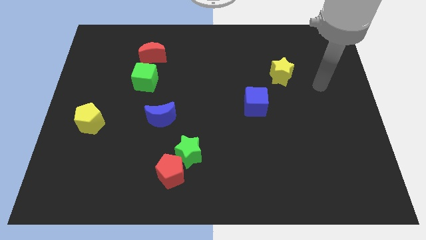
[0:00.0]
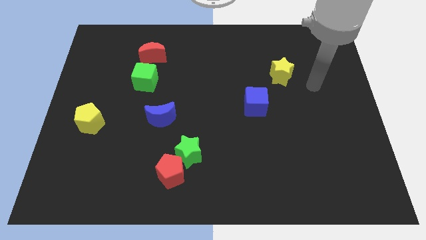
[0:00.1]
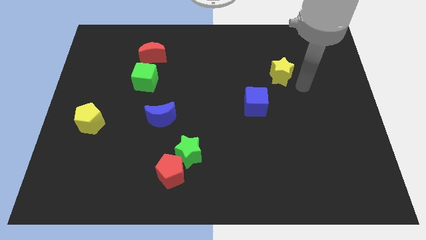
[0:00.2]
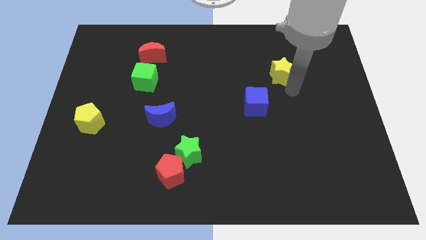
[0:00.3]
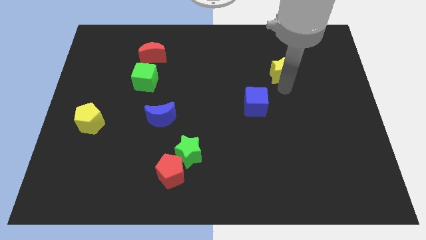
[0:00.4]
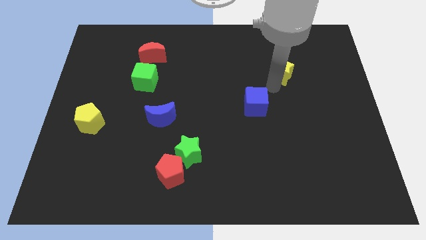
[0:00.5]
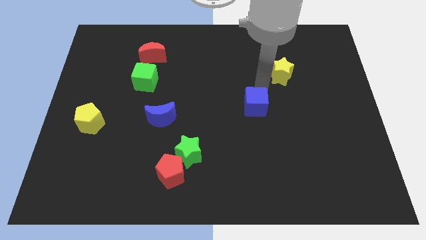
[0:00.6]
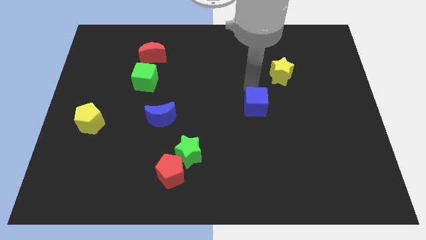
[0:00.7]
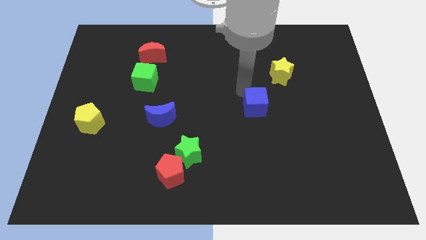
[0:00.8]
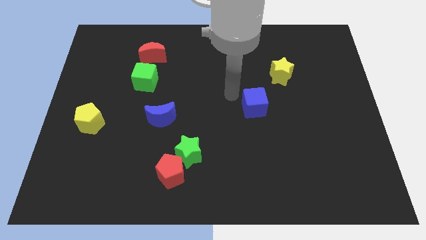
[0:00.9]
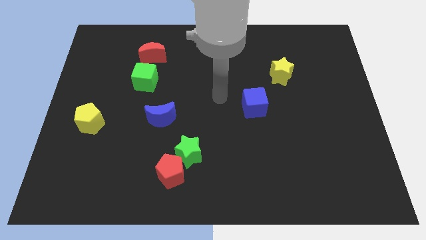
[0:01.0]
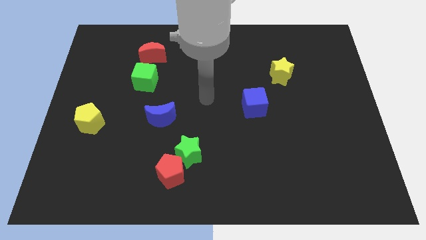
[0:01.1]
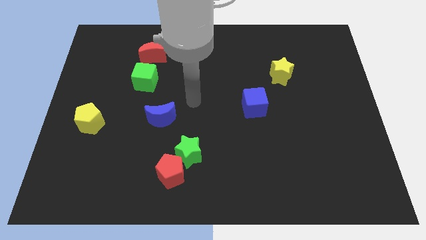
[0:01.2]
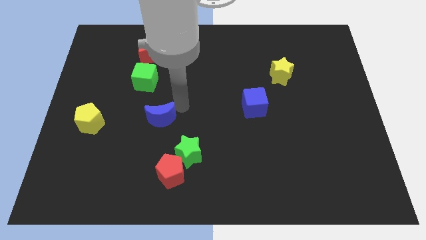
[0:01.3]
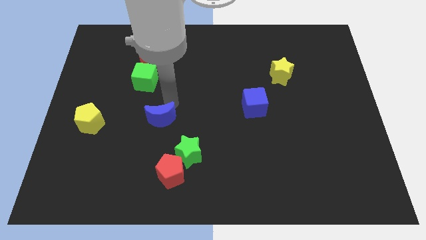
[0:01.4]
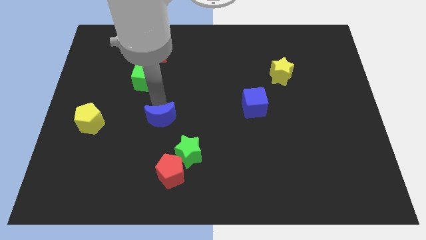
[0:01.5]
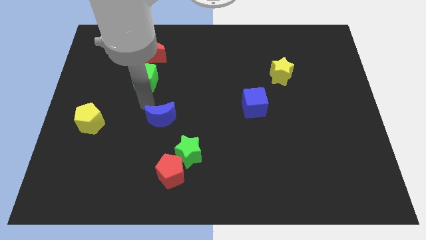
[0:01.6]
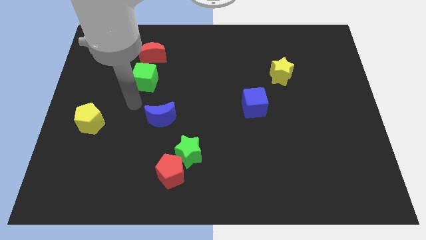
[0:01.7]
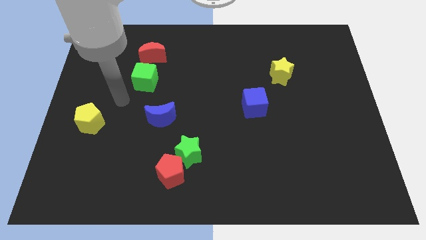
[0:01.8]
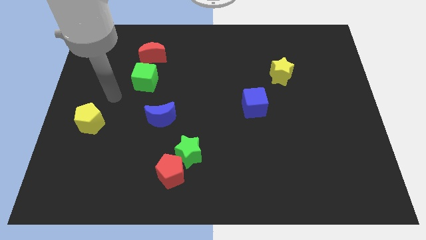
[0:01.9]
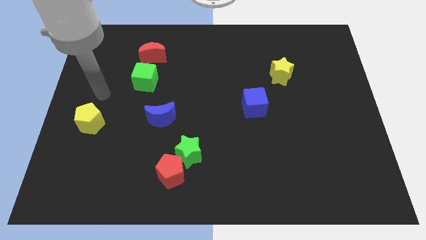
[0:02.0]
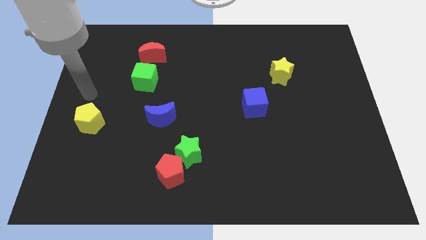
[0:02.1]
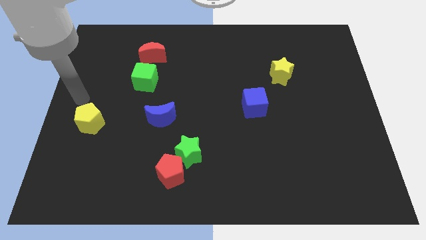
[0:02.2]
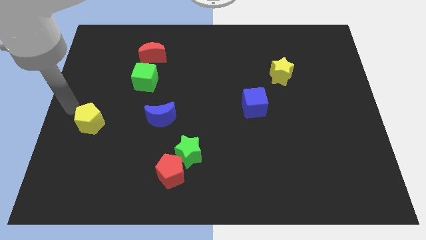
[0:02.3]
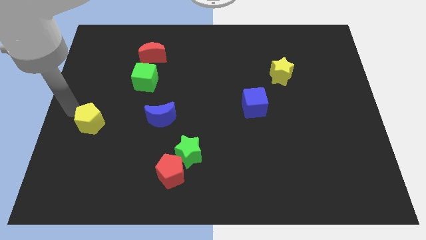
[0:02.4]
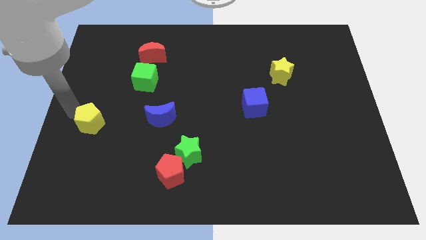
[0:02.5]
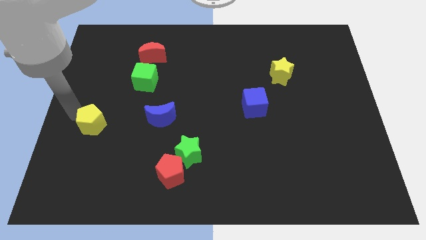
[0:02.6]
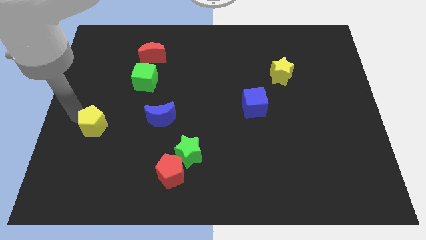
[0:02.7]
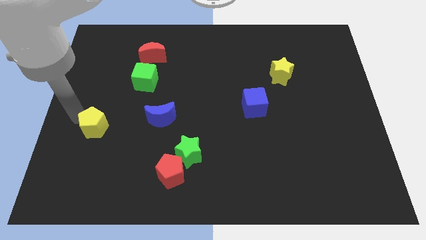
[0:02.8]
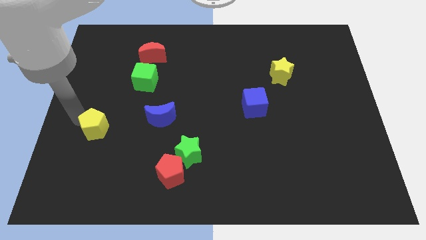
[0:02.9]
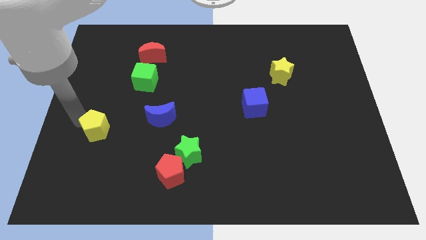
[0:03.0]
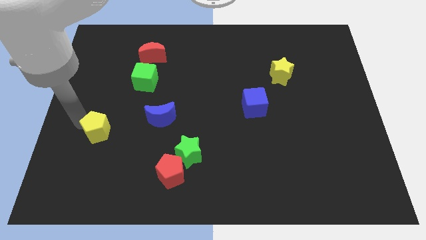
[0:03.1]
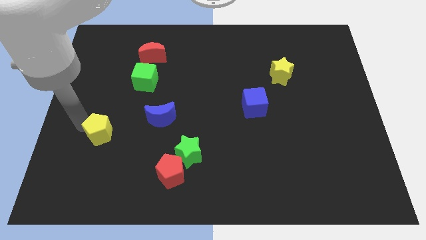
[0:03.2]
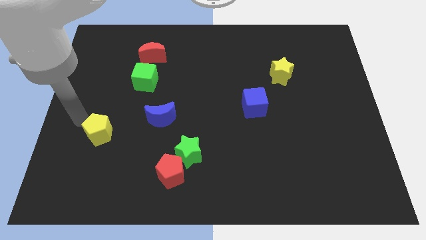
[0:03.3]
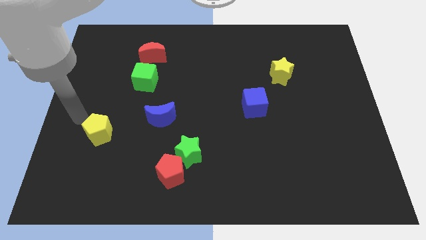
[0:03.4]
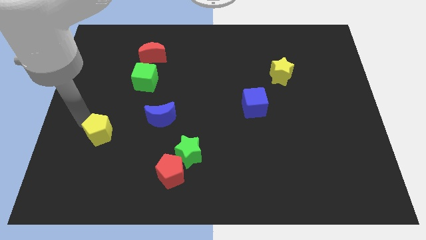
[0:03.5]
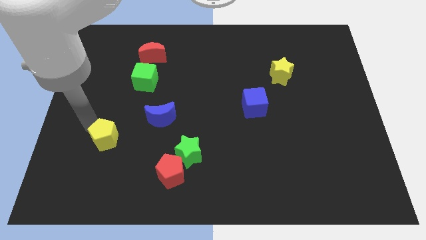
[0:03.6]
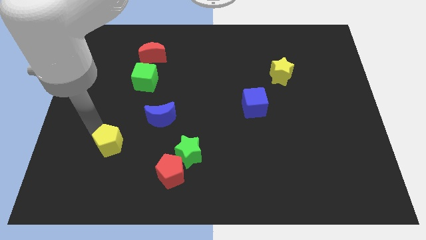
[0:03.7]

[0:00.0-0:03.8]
slightly move the yellow pentagon downwards and then right

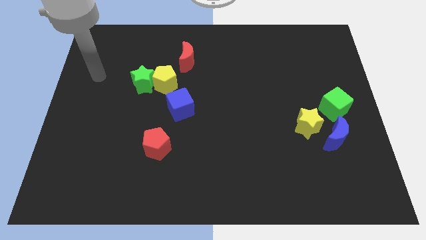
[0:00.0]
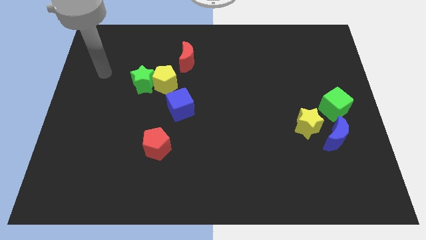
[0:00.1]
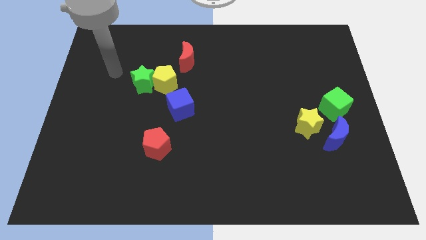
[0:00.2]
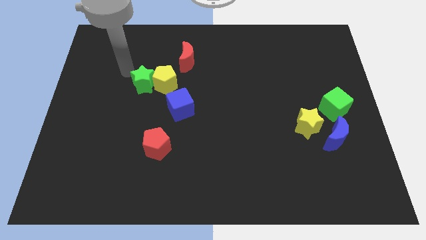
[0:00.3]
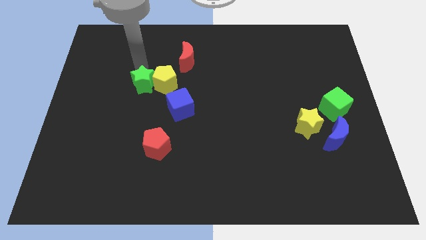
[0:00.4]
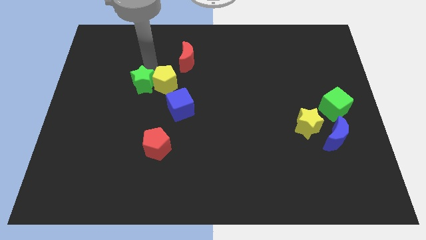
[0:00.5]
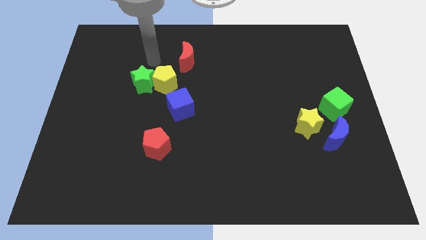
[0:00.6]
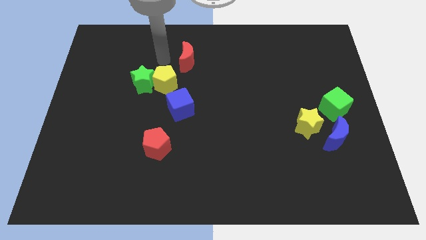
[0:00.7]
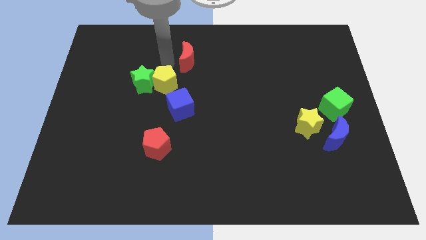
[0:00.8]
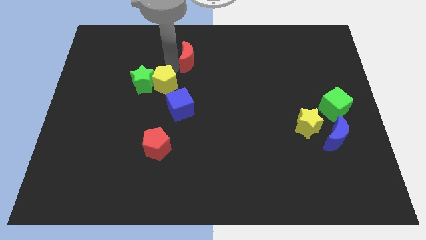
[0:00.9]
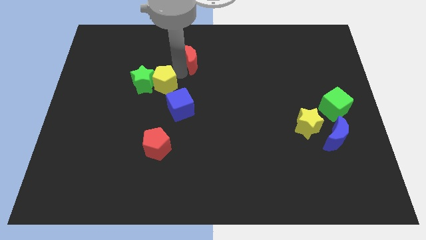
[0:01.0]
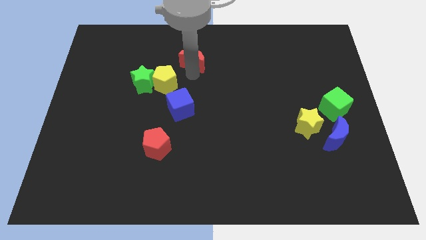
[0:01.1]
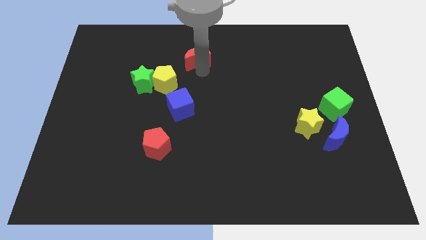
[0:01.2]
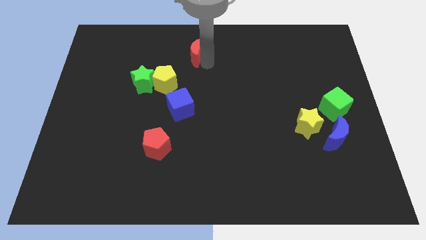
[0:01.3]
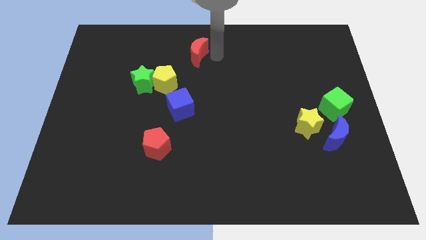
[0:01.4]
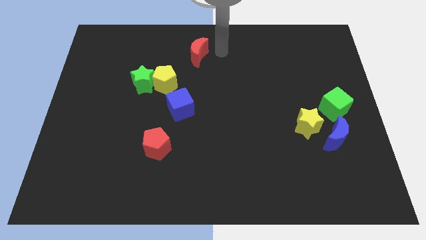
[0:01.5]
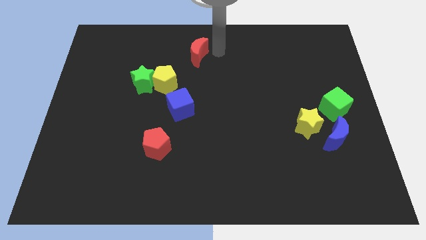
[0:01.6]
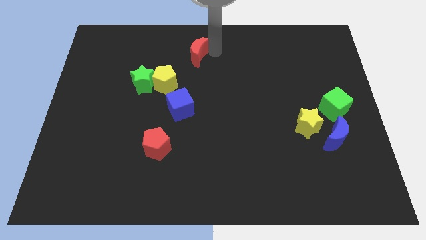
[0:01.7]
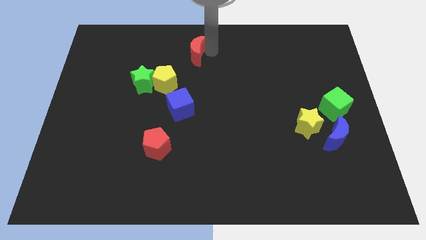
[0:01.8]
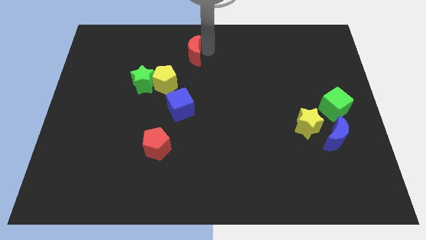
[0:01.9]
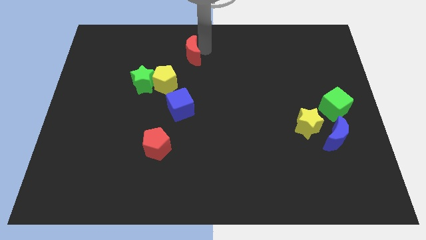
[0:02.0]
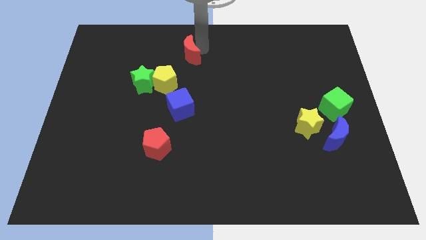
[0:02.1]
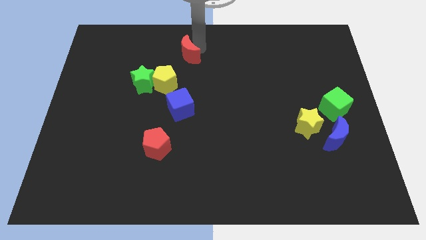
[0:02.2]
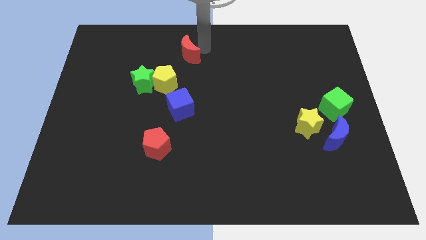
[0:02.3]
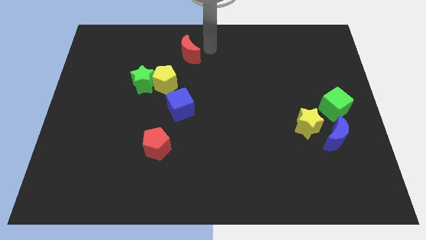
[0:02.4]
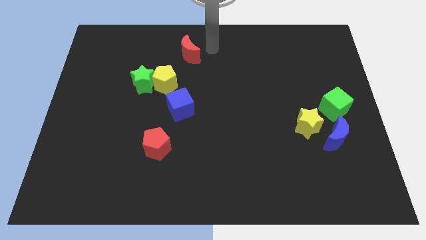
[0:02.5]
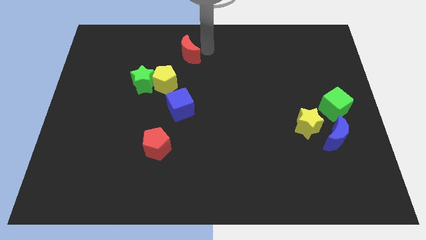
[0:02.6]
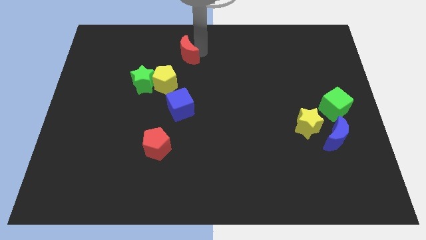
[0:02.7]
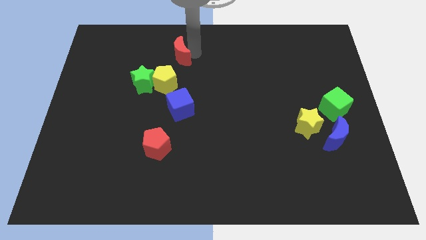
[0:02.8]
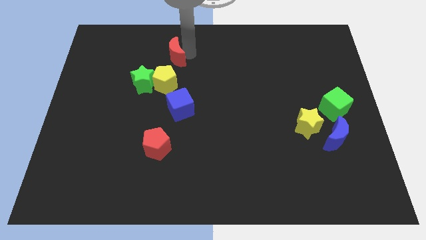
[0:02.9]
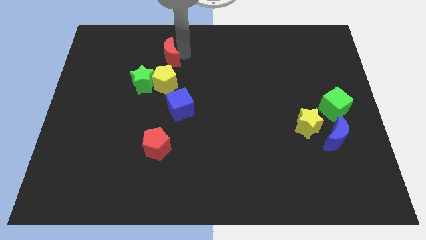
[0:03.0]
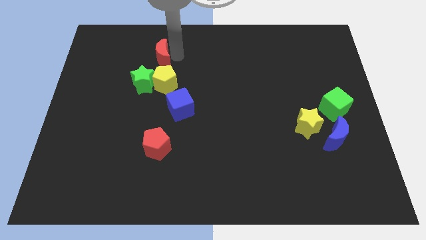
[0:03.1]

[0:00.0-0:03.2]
push the red moon somewhat to the left

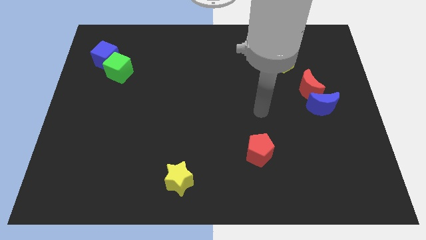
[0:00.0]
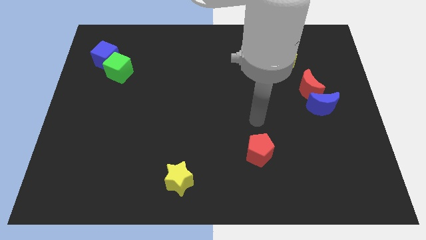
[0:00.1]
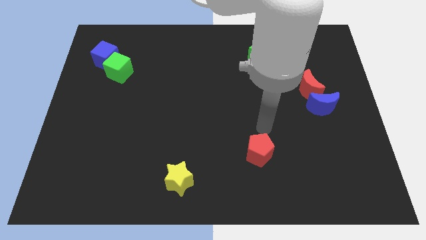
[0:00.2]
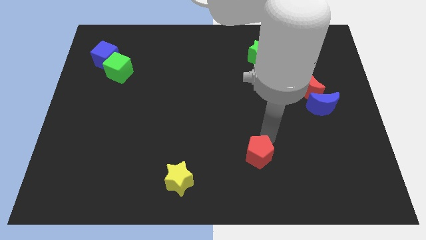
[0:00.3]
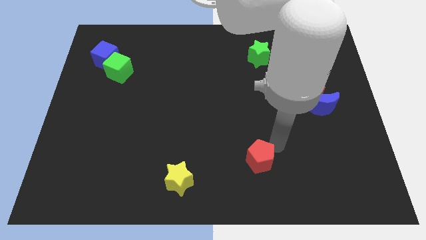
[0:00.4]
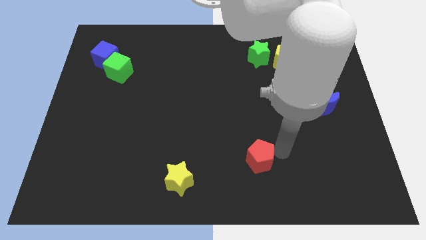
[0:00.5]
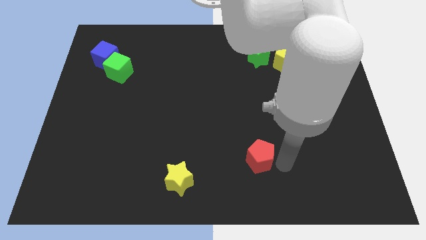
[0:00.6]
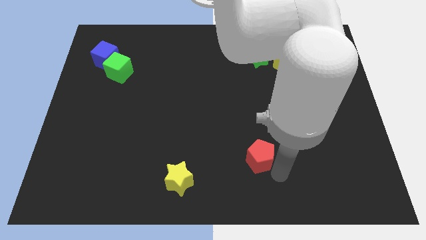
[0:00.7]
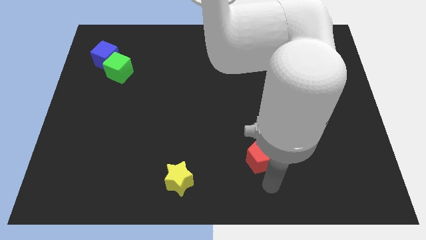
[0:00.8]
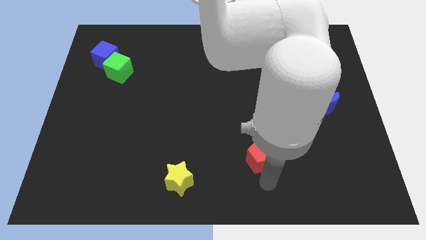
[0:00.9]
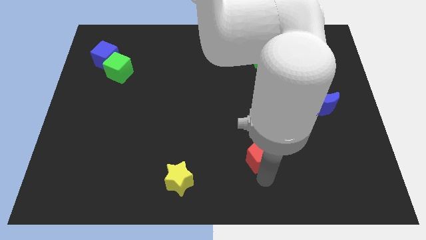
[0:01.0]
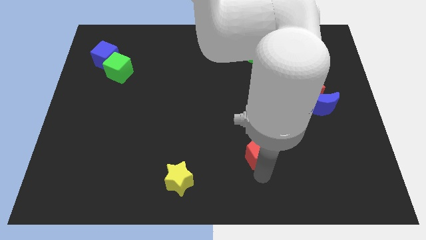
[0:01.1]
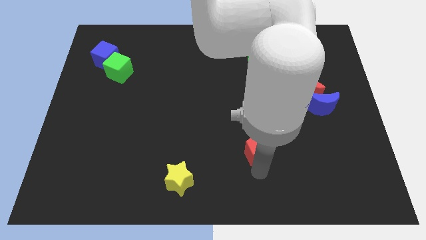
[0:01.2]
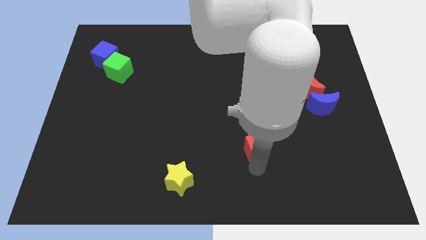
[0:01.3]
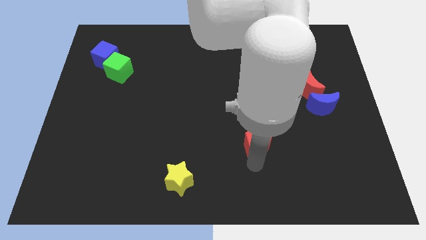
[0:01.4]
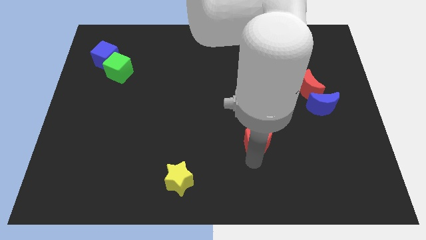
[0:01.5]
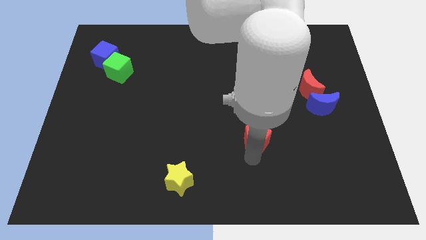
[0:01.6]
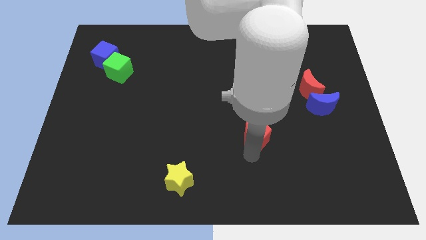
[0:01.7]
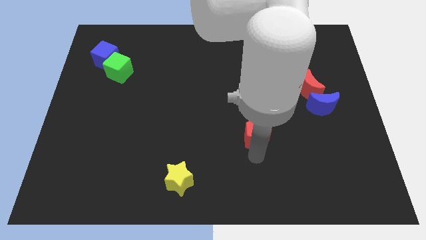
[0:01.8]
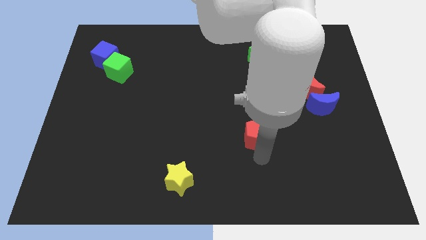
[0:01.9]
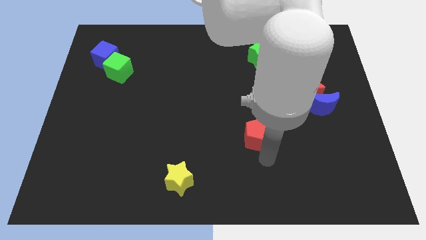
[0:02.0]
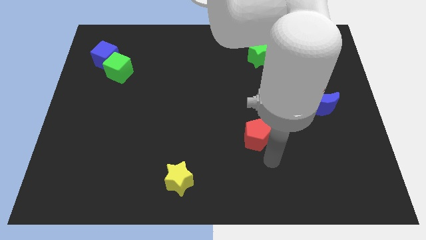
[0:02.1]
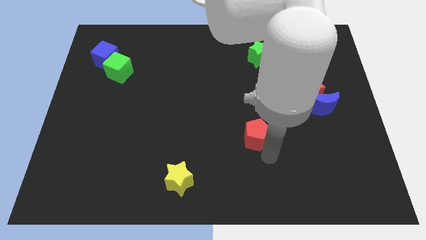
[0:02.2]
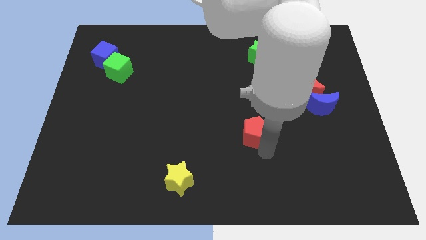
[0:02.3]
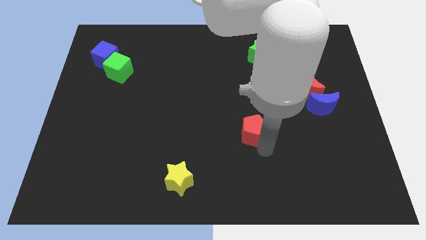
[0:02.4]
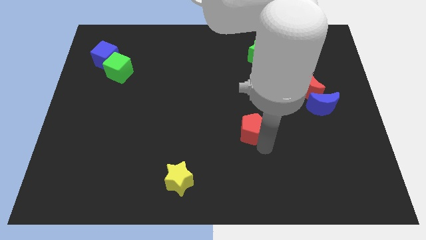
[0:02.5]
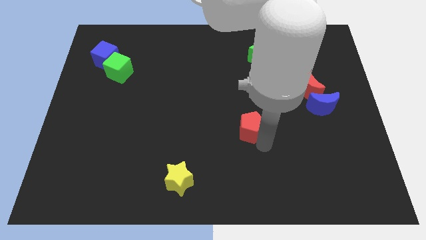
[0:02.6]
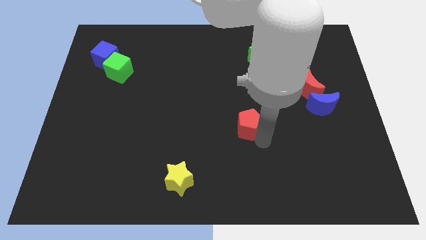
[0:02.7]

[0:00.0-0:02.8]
move the red pentagon a little up
